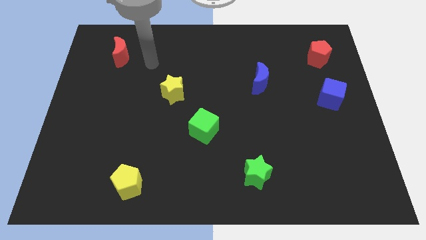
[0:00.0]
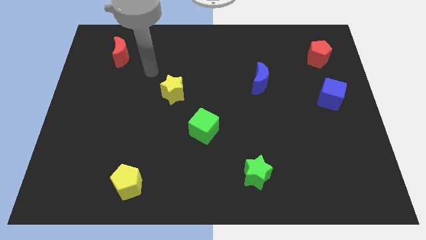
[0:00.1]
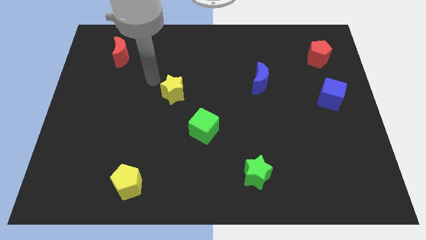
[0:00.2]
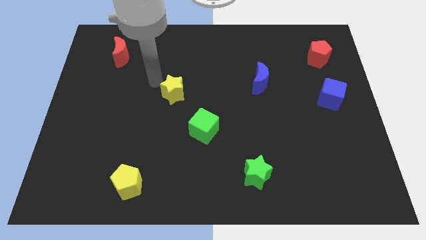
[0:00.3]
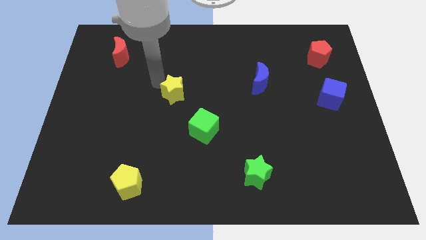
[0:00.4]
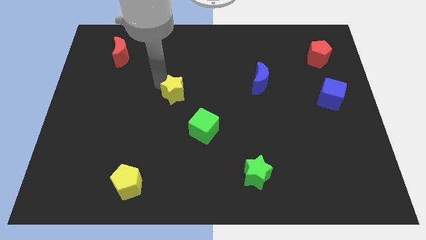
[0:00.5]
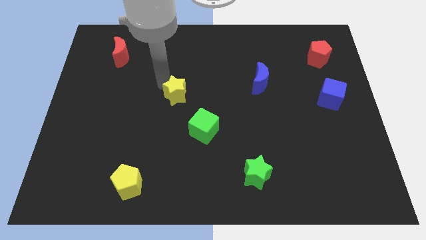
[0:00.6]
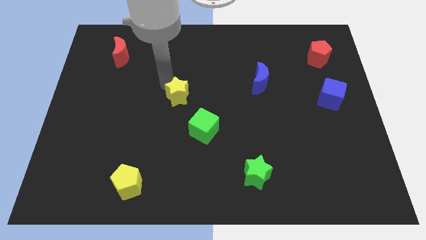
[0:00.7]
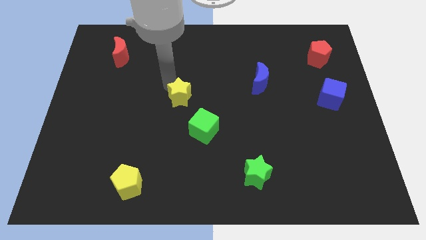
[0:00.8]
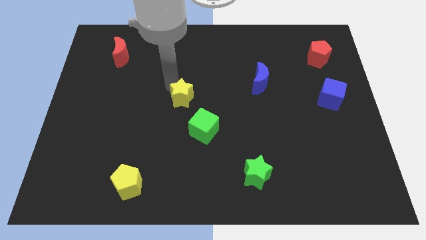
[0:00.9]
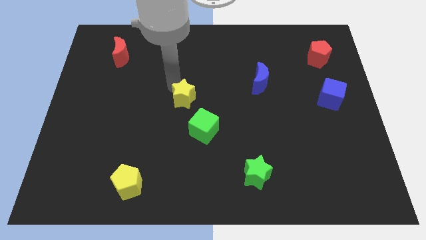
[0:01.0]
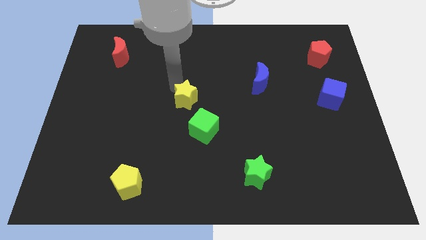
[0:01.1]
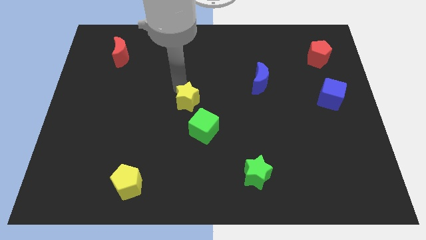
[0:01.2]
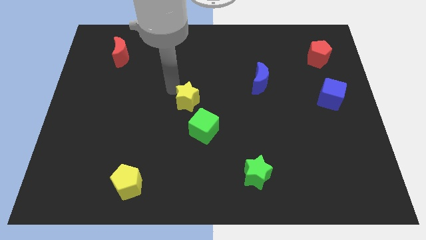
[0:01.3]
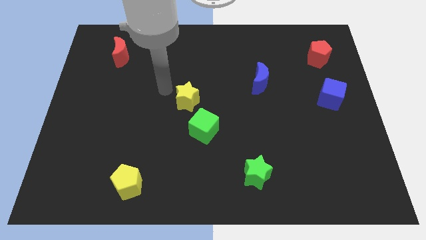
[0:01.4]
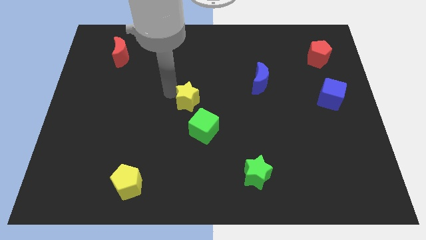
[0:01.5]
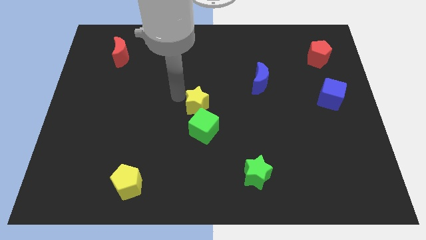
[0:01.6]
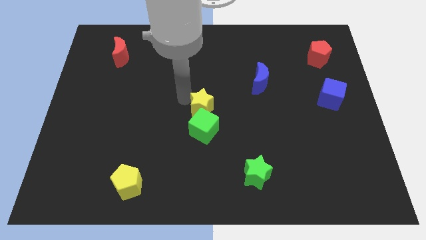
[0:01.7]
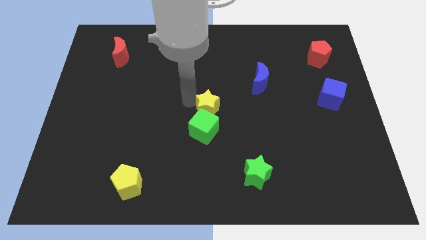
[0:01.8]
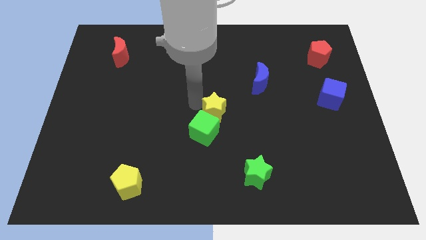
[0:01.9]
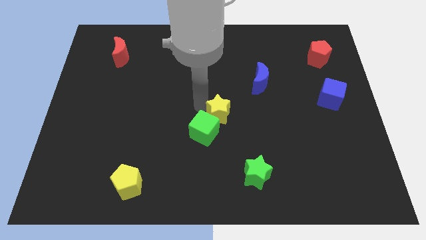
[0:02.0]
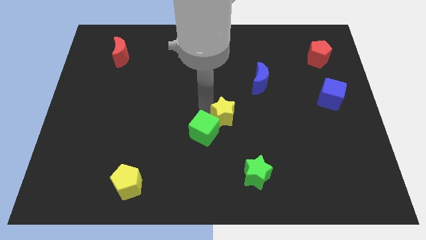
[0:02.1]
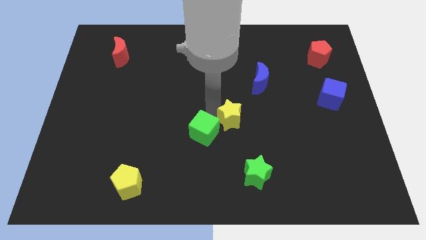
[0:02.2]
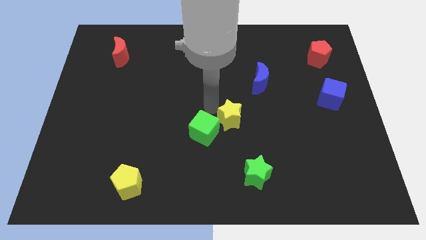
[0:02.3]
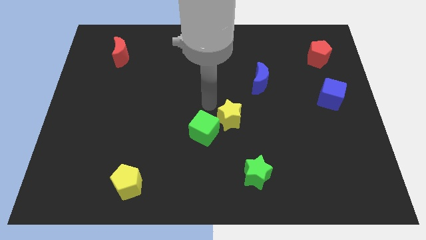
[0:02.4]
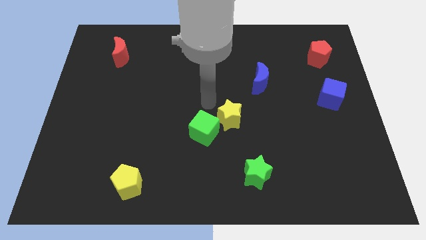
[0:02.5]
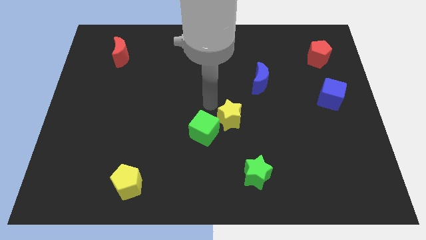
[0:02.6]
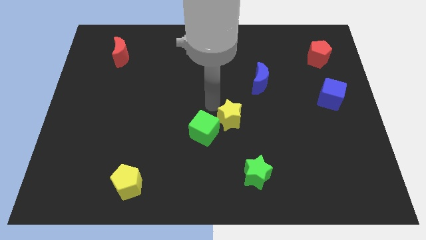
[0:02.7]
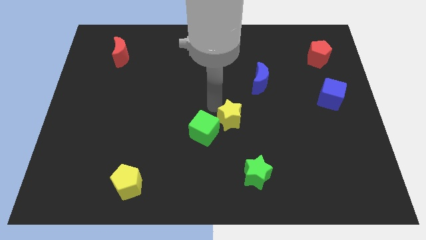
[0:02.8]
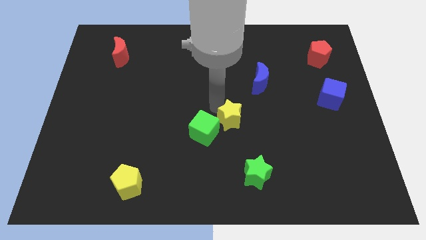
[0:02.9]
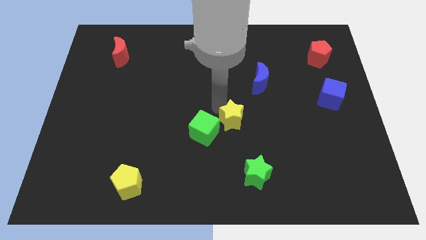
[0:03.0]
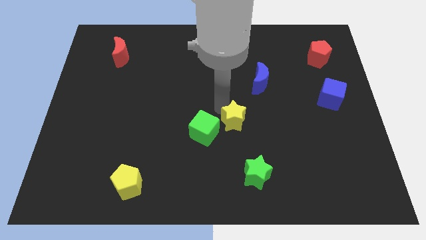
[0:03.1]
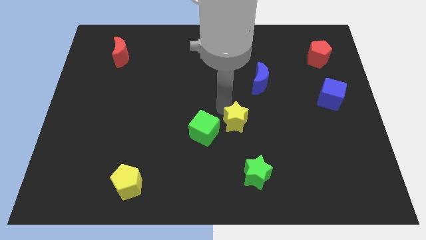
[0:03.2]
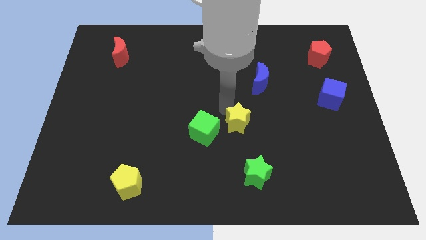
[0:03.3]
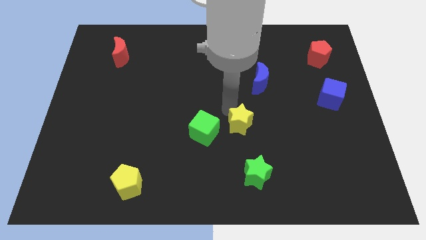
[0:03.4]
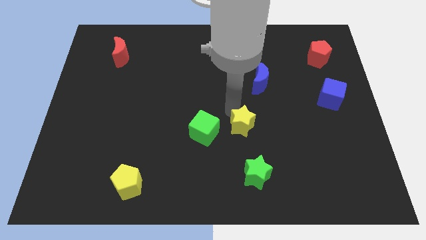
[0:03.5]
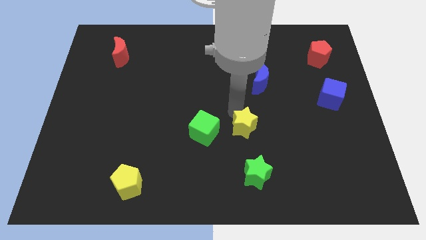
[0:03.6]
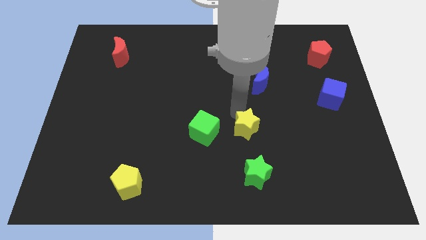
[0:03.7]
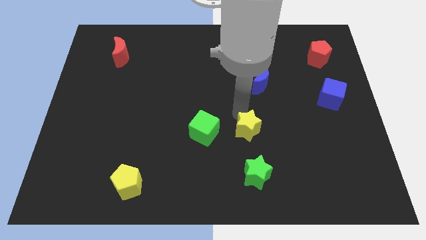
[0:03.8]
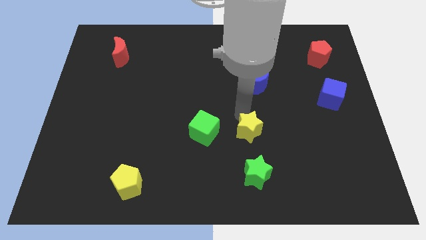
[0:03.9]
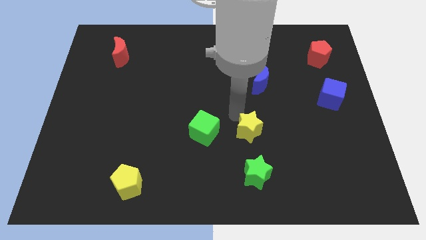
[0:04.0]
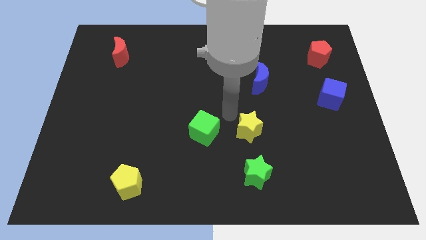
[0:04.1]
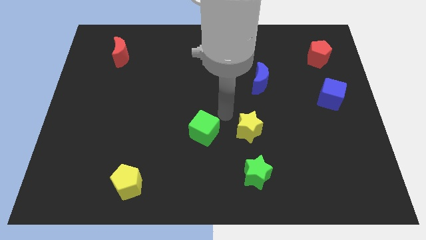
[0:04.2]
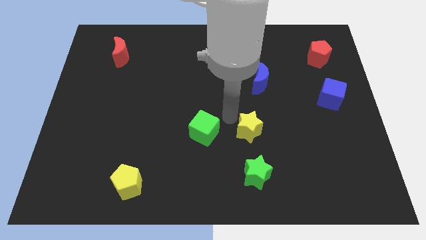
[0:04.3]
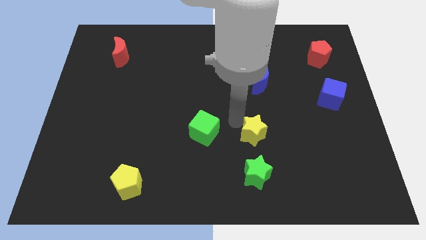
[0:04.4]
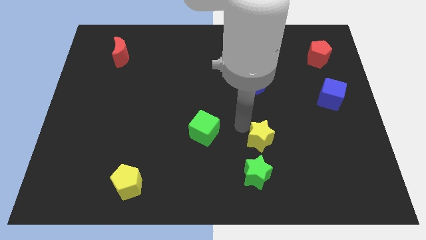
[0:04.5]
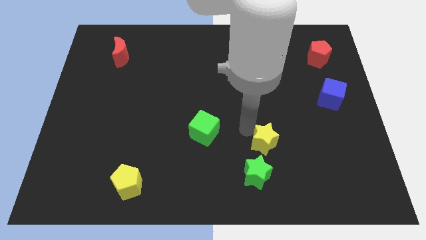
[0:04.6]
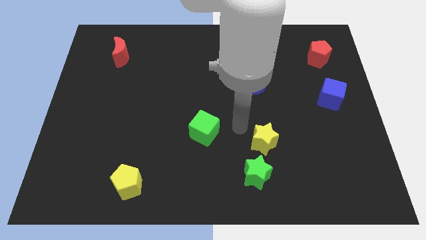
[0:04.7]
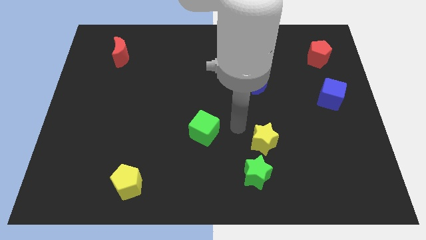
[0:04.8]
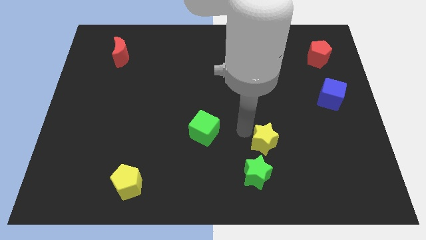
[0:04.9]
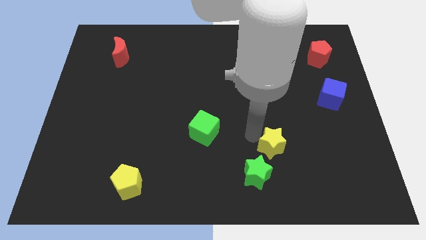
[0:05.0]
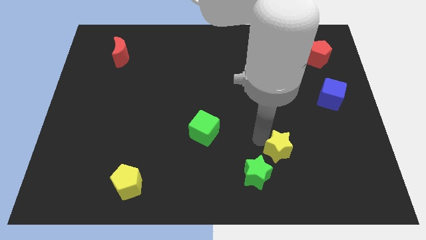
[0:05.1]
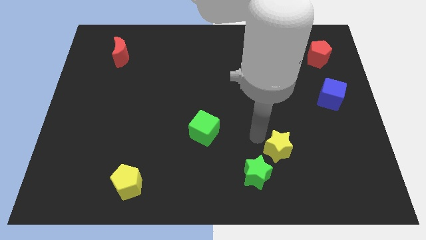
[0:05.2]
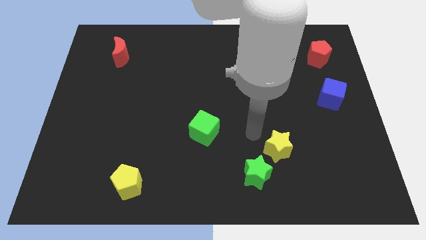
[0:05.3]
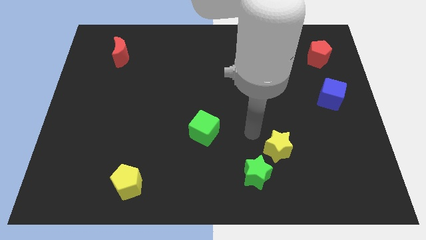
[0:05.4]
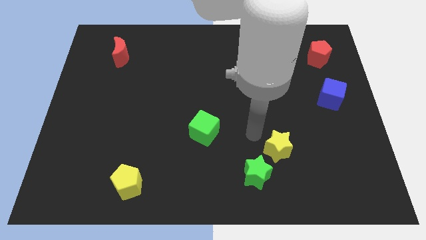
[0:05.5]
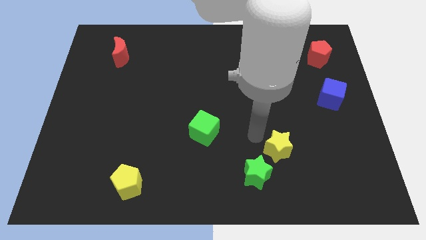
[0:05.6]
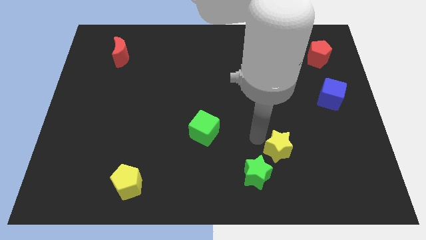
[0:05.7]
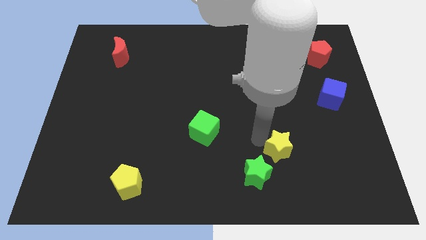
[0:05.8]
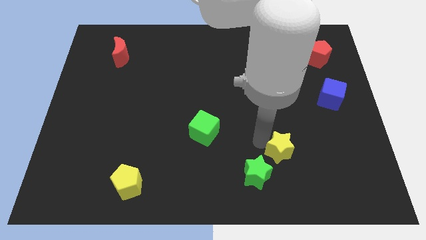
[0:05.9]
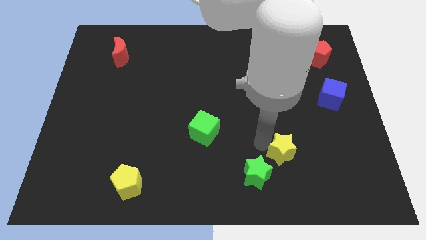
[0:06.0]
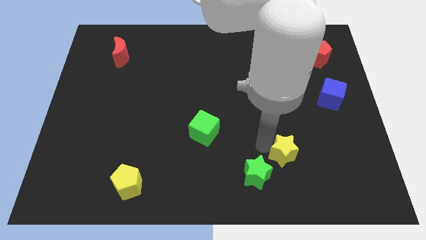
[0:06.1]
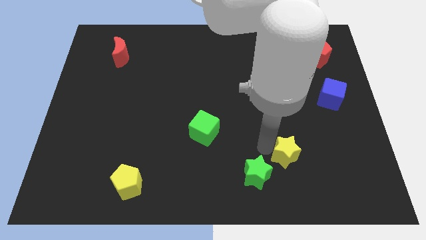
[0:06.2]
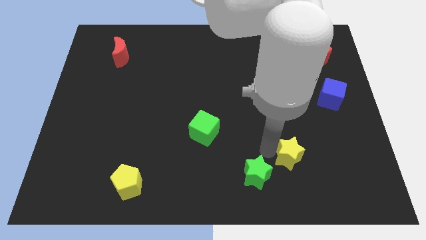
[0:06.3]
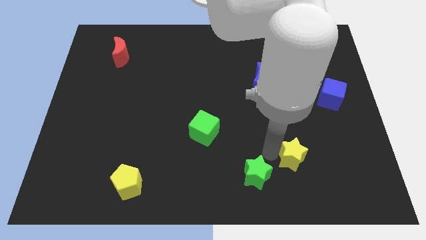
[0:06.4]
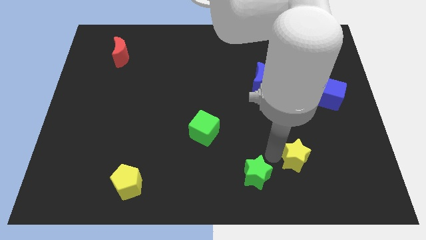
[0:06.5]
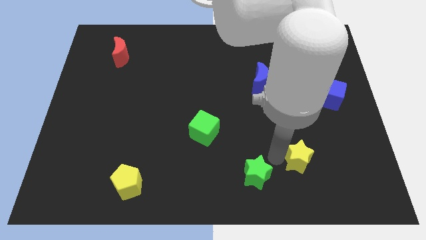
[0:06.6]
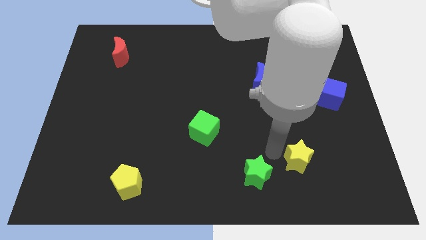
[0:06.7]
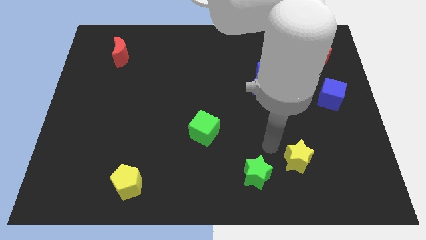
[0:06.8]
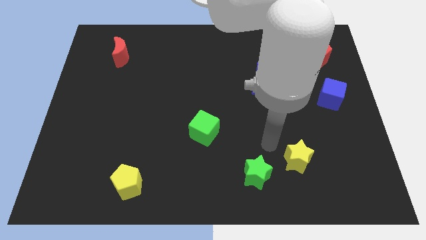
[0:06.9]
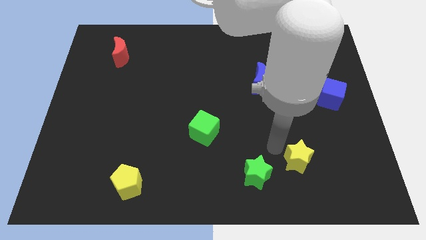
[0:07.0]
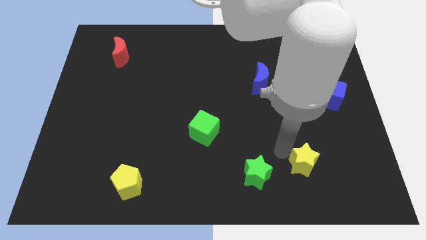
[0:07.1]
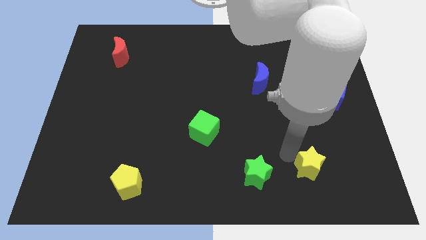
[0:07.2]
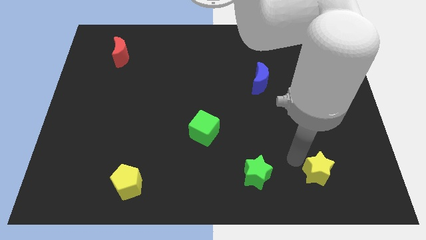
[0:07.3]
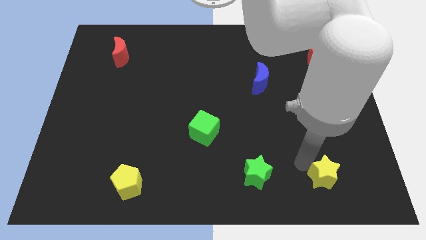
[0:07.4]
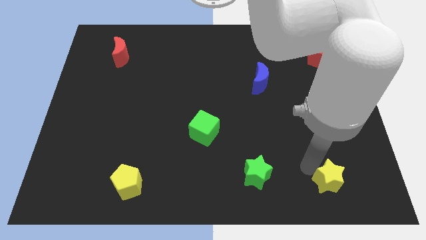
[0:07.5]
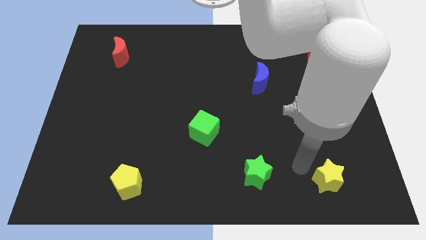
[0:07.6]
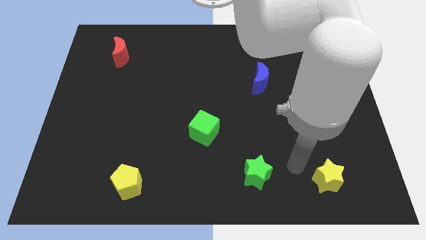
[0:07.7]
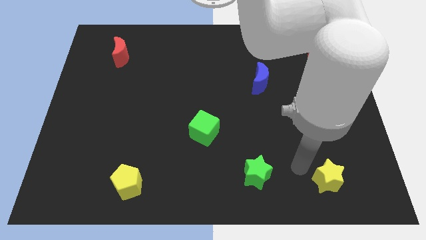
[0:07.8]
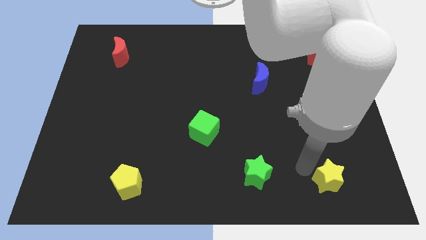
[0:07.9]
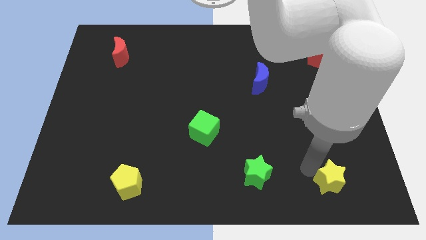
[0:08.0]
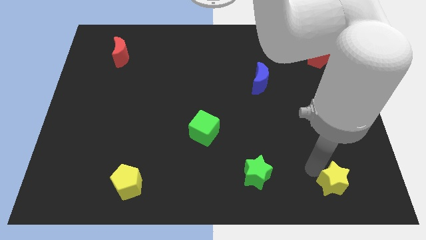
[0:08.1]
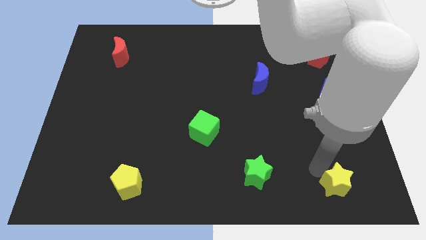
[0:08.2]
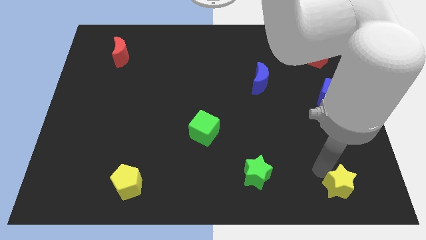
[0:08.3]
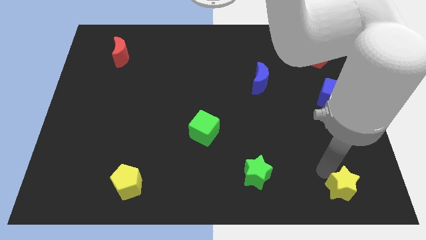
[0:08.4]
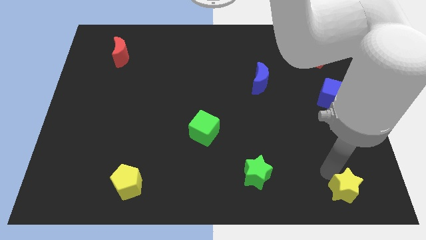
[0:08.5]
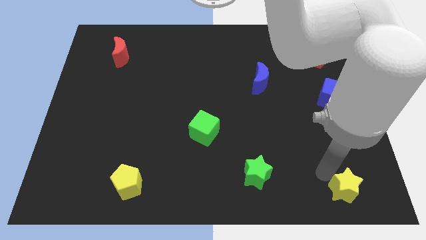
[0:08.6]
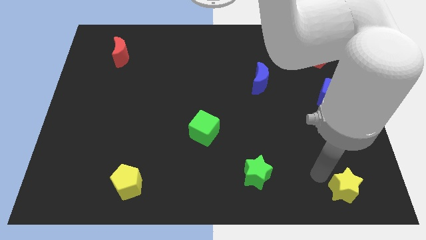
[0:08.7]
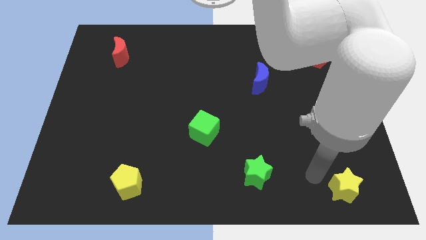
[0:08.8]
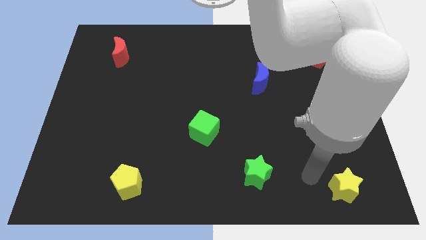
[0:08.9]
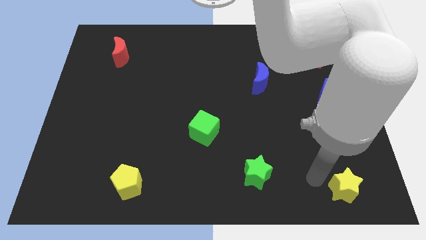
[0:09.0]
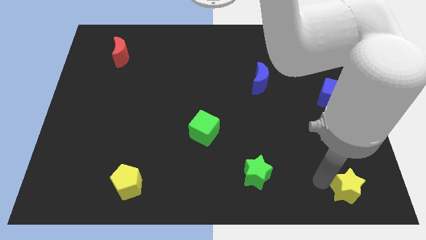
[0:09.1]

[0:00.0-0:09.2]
put the yellow star to the bottom right of the board
